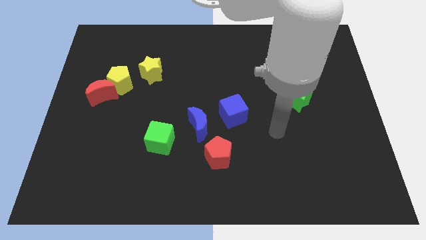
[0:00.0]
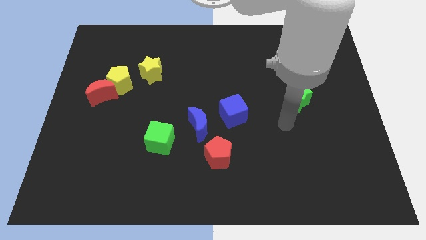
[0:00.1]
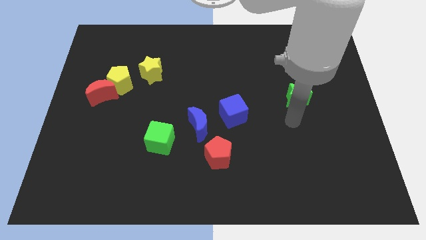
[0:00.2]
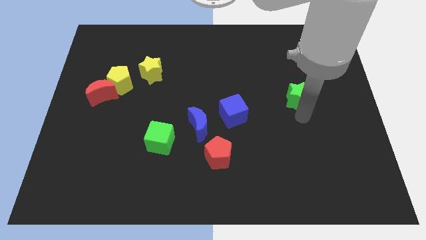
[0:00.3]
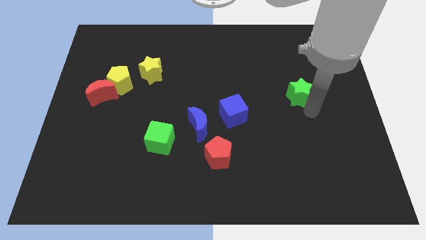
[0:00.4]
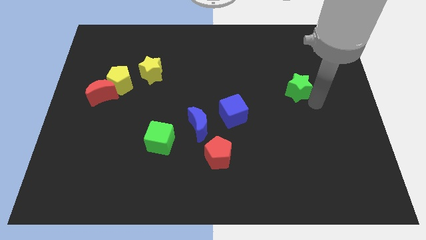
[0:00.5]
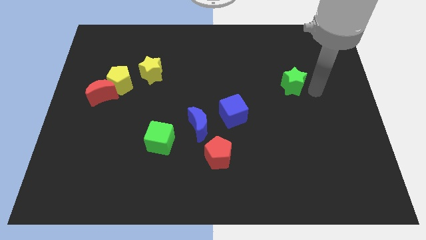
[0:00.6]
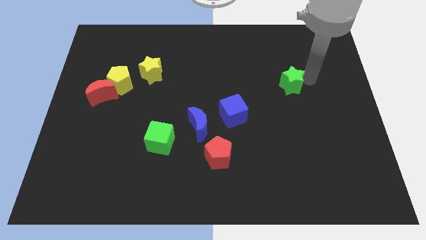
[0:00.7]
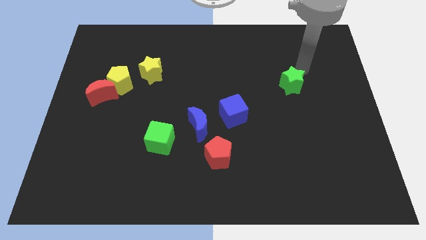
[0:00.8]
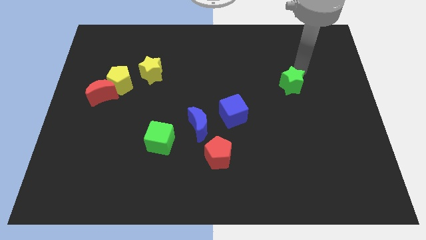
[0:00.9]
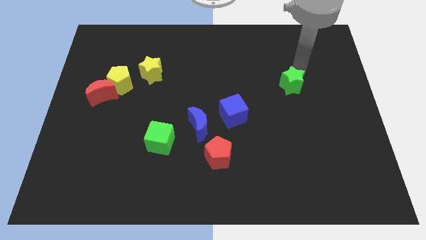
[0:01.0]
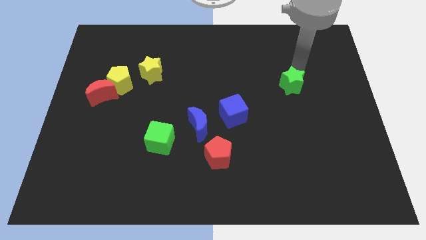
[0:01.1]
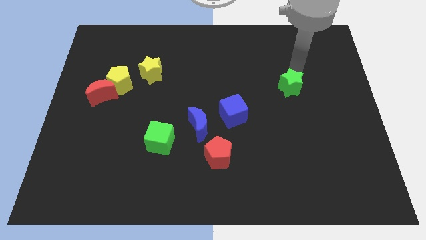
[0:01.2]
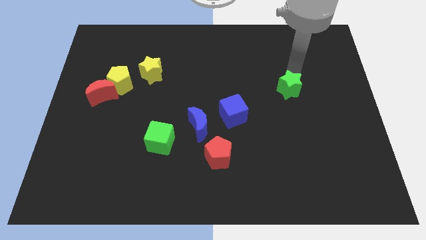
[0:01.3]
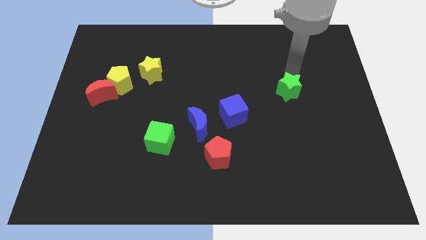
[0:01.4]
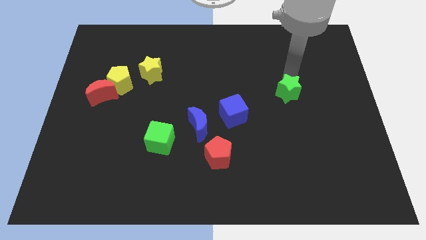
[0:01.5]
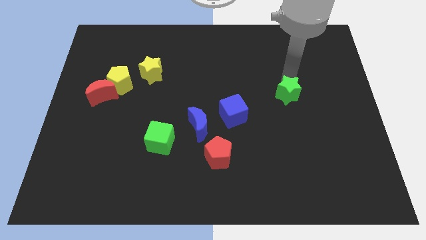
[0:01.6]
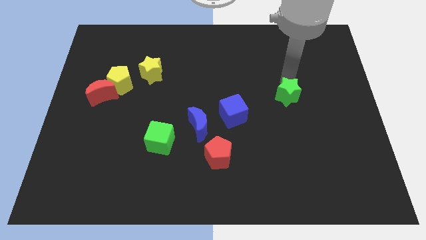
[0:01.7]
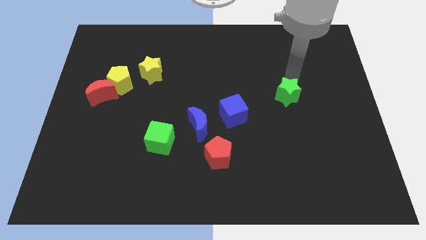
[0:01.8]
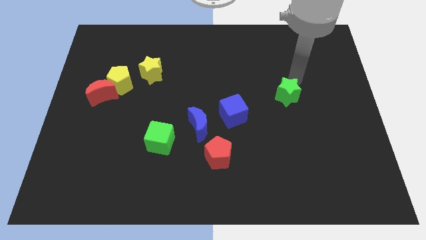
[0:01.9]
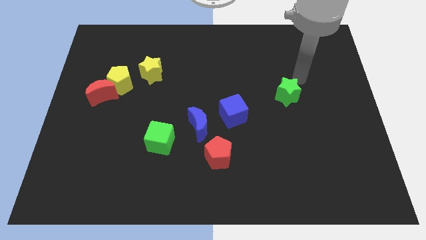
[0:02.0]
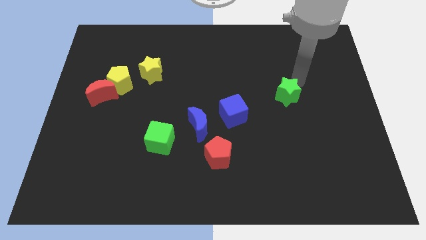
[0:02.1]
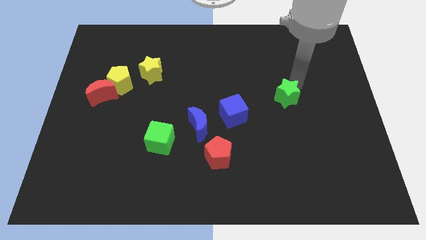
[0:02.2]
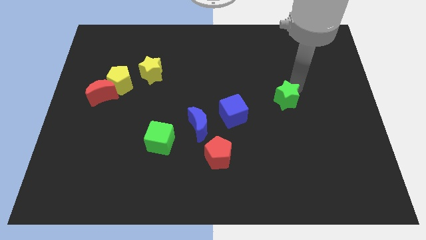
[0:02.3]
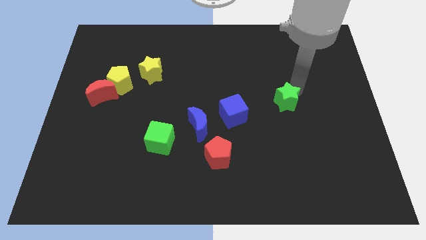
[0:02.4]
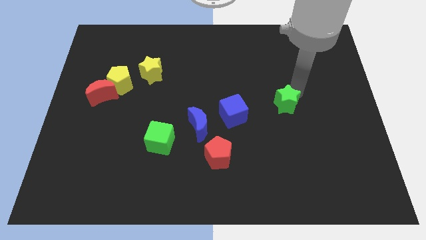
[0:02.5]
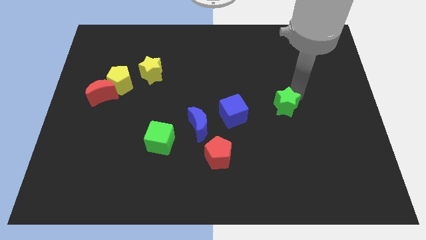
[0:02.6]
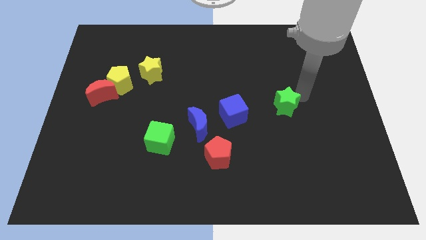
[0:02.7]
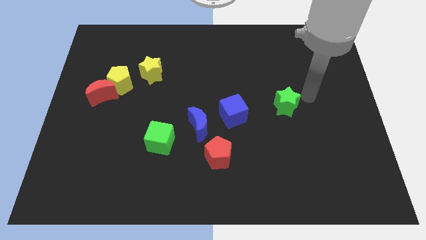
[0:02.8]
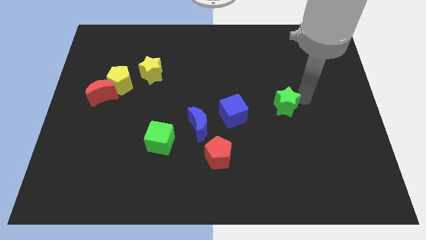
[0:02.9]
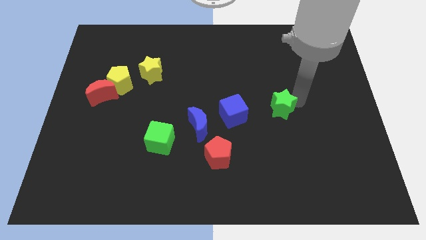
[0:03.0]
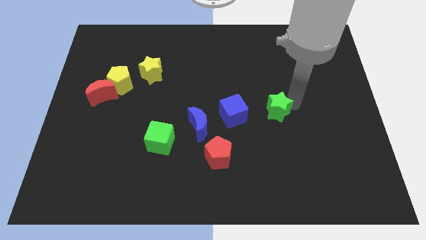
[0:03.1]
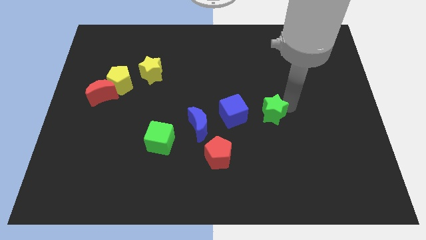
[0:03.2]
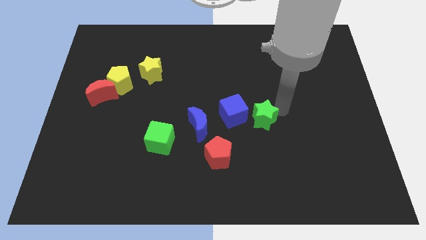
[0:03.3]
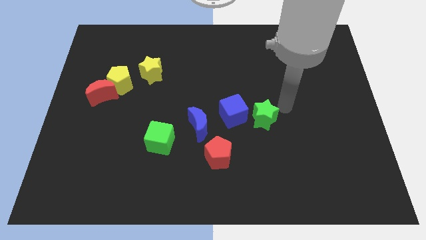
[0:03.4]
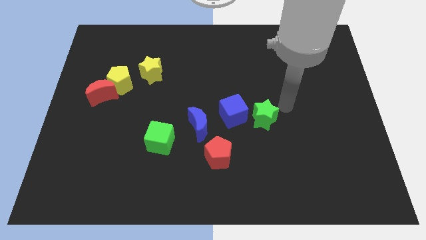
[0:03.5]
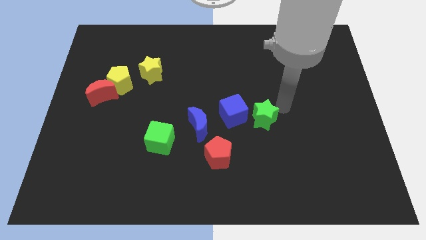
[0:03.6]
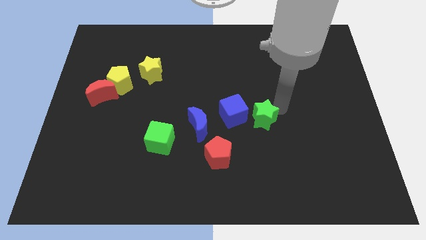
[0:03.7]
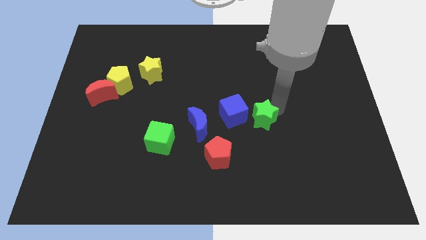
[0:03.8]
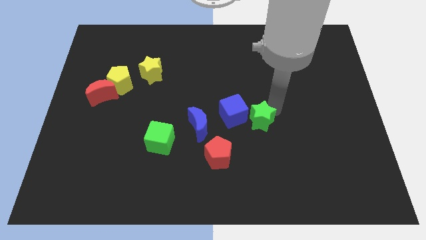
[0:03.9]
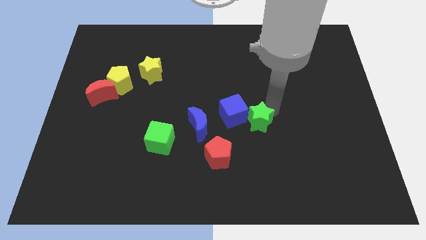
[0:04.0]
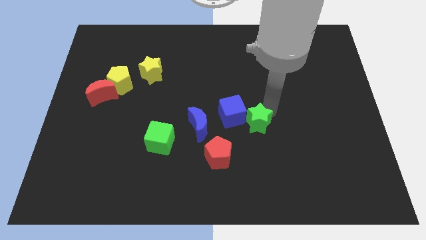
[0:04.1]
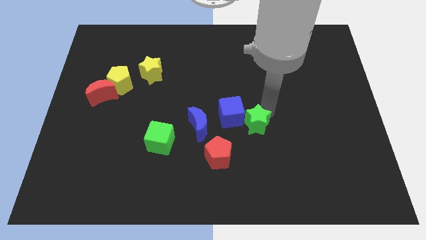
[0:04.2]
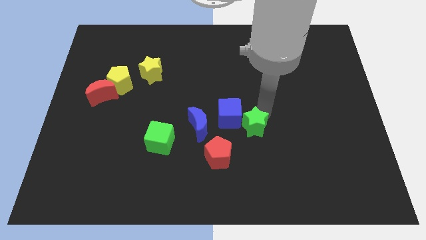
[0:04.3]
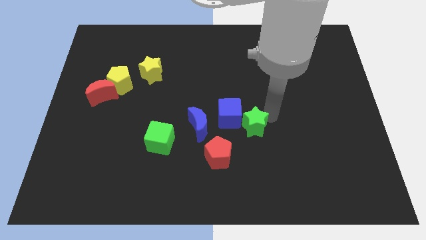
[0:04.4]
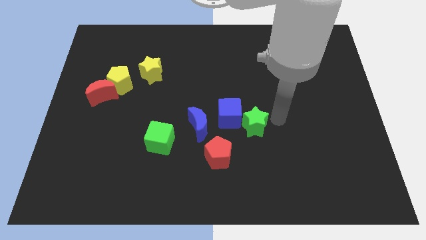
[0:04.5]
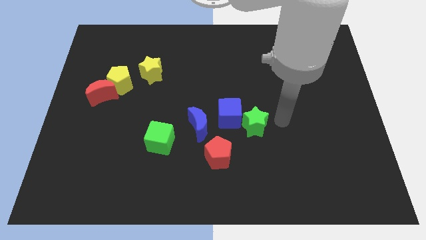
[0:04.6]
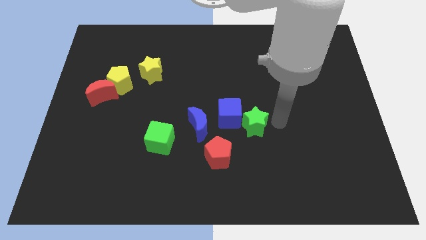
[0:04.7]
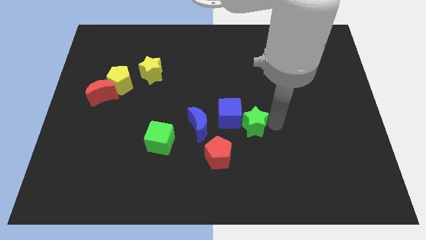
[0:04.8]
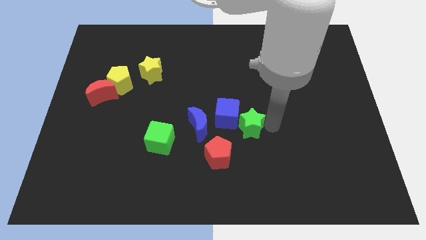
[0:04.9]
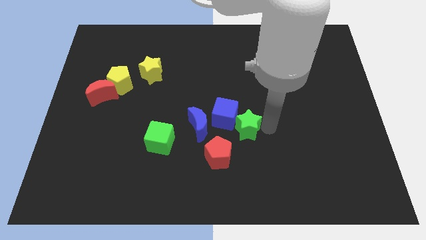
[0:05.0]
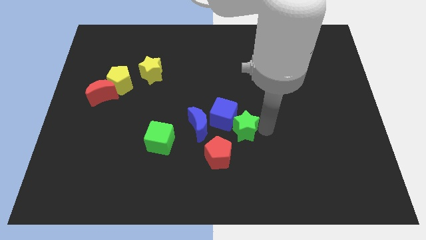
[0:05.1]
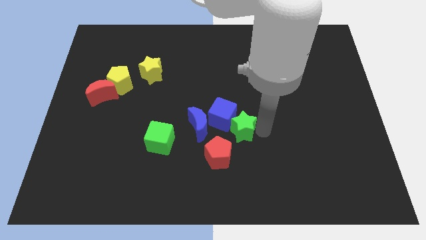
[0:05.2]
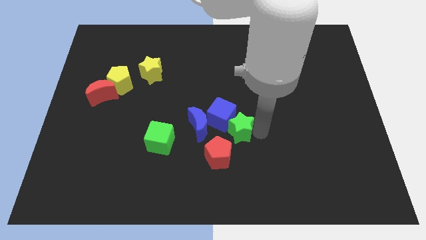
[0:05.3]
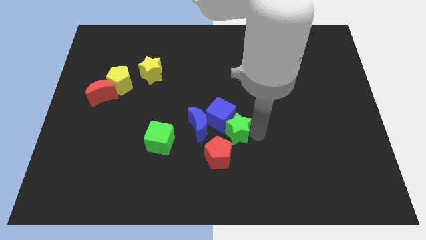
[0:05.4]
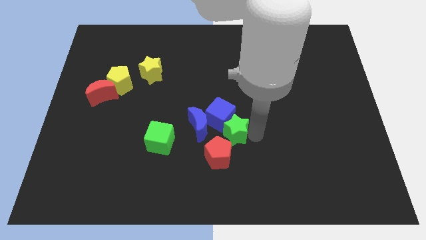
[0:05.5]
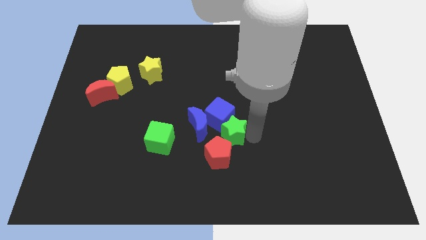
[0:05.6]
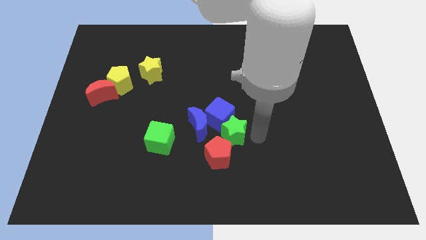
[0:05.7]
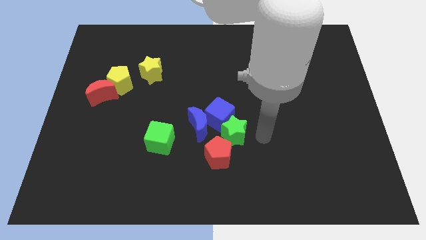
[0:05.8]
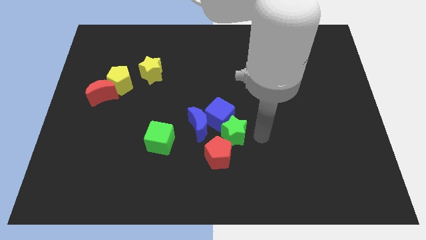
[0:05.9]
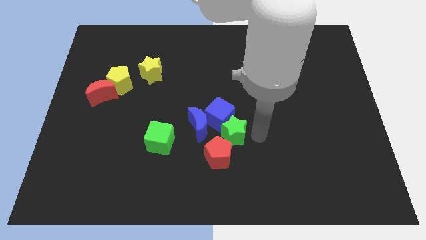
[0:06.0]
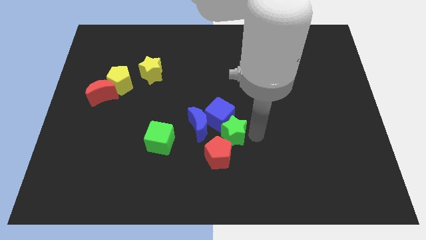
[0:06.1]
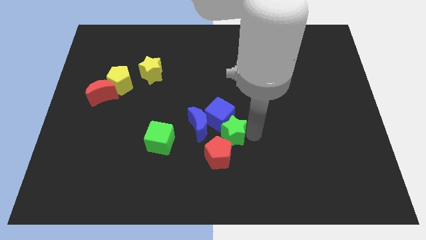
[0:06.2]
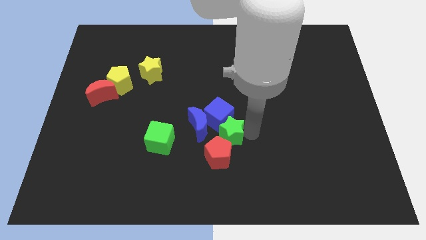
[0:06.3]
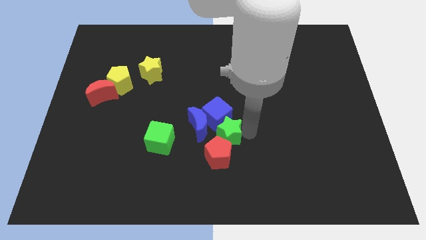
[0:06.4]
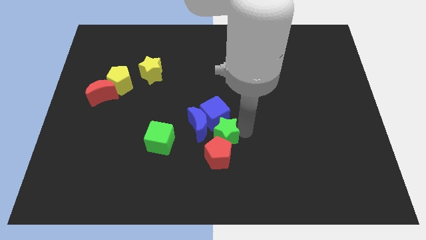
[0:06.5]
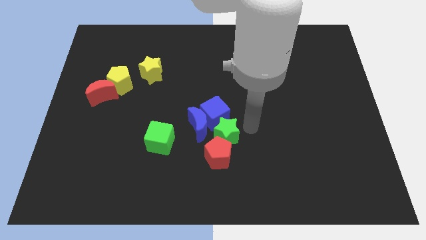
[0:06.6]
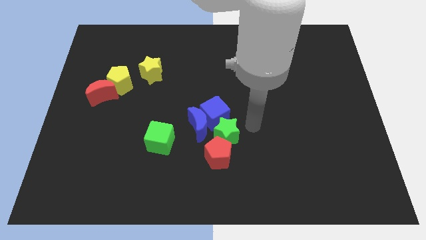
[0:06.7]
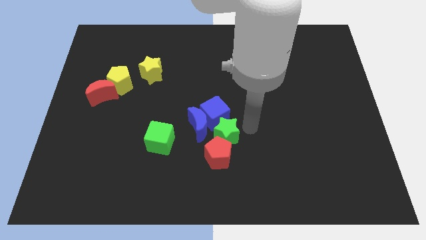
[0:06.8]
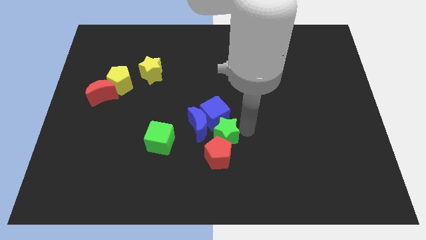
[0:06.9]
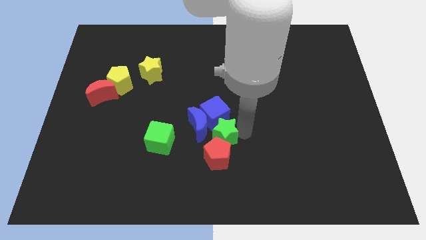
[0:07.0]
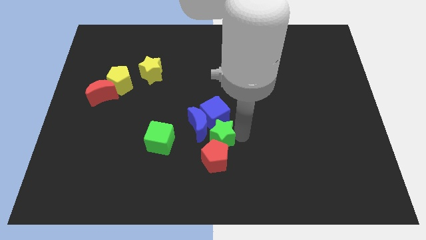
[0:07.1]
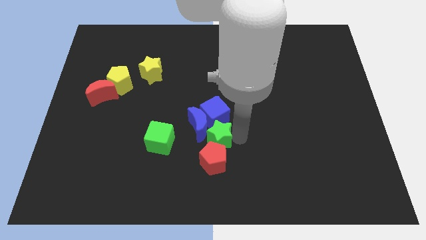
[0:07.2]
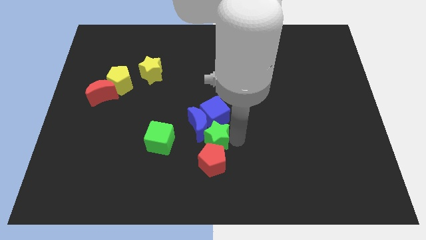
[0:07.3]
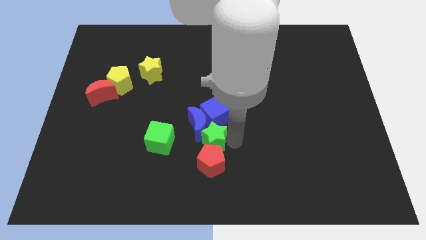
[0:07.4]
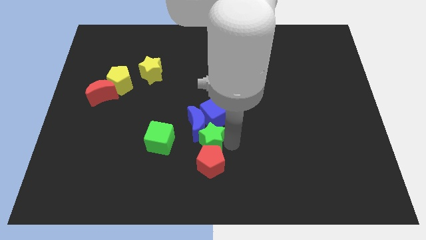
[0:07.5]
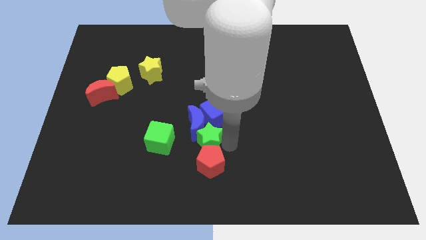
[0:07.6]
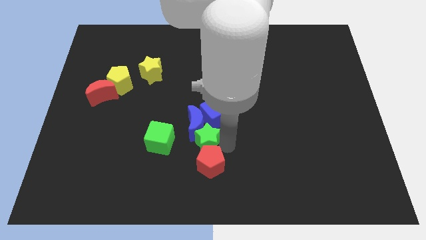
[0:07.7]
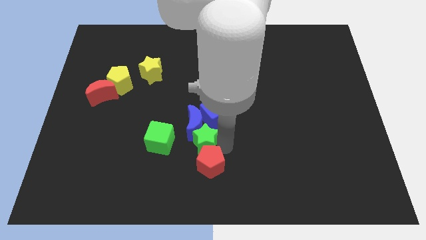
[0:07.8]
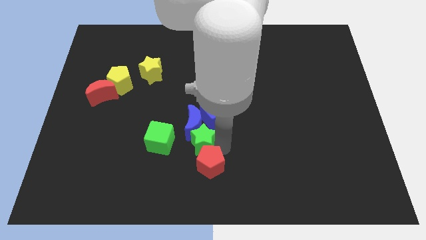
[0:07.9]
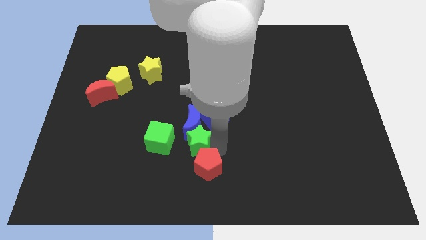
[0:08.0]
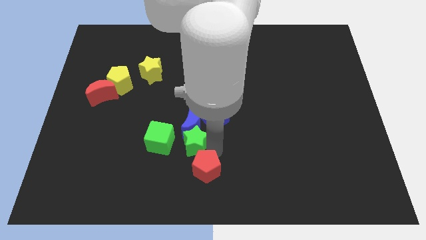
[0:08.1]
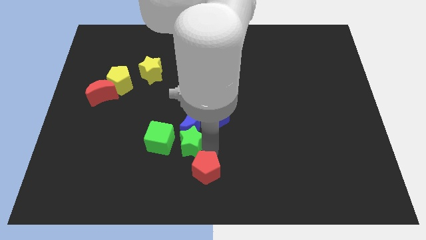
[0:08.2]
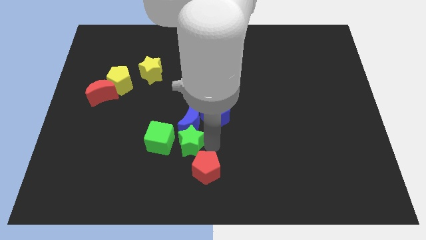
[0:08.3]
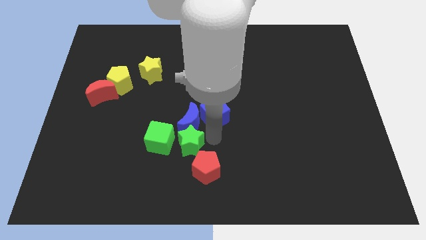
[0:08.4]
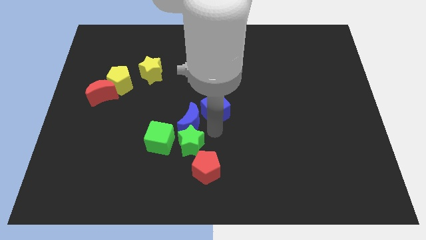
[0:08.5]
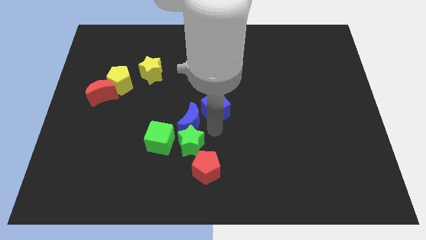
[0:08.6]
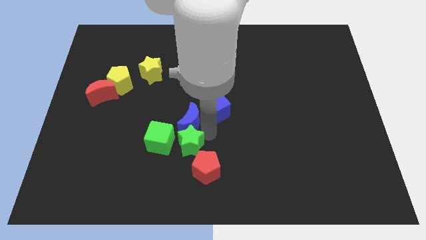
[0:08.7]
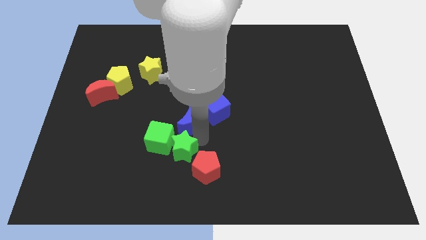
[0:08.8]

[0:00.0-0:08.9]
move the green star to the left of the red pentagon
